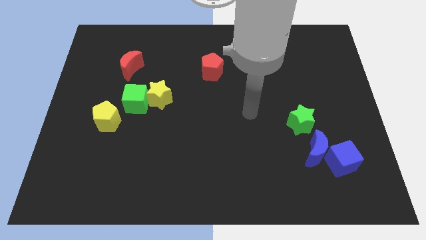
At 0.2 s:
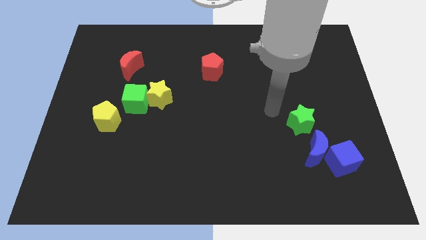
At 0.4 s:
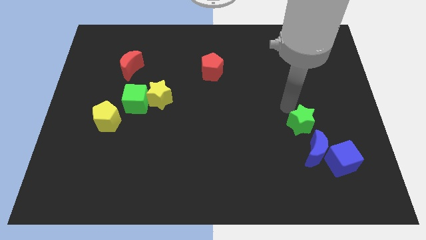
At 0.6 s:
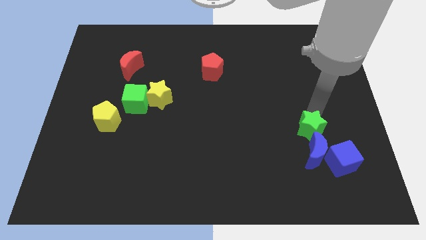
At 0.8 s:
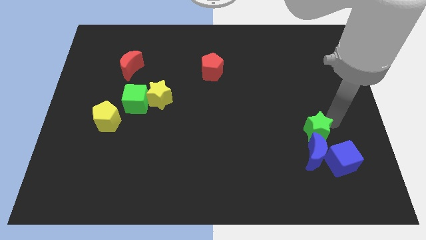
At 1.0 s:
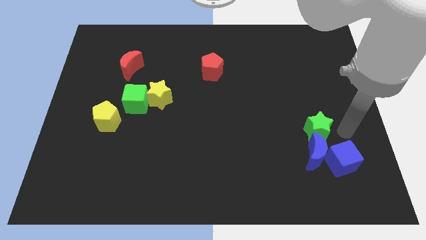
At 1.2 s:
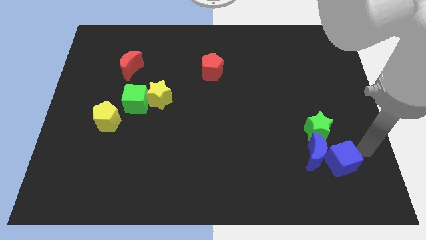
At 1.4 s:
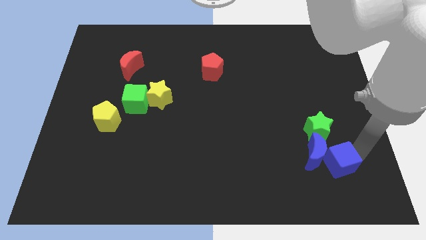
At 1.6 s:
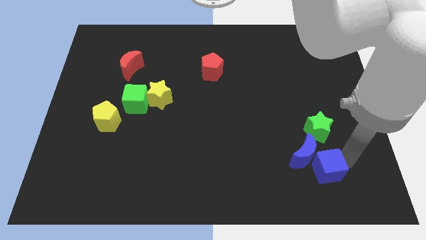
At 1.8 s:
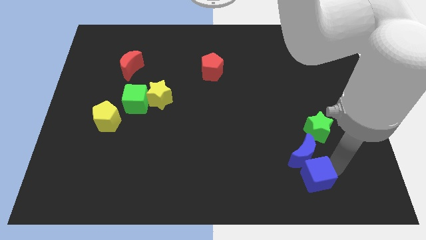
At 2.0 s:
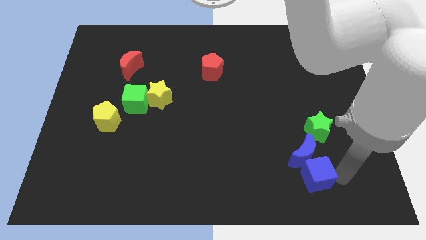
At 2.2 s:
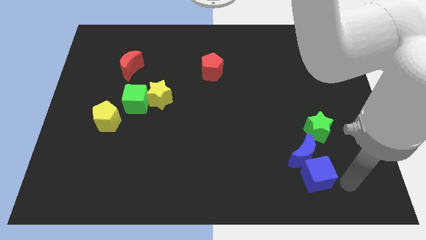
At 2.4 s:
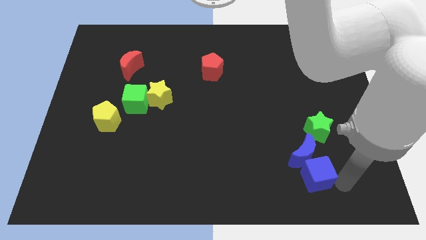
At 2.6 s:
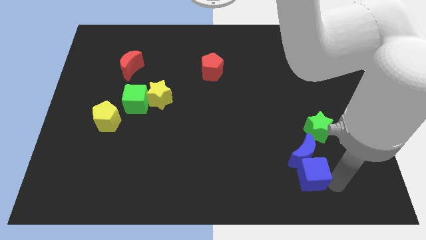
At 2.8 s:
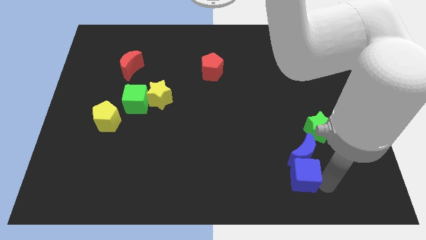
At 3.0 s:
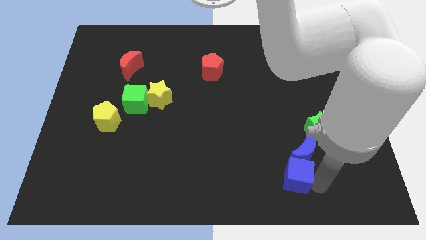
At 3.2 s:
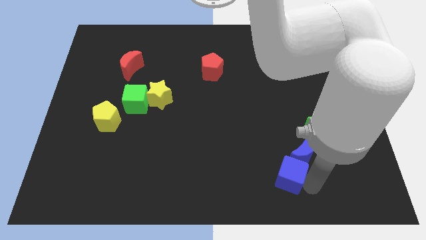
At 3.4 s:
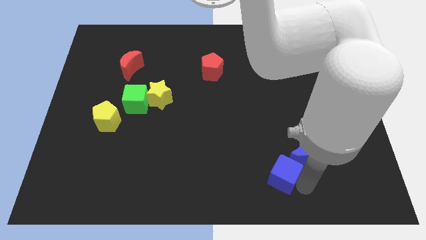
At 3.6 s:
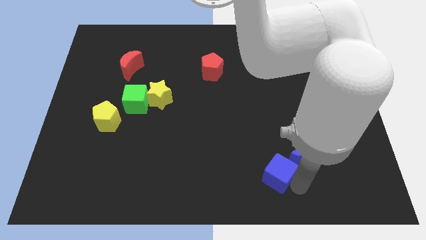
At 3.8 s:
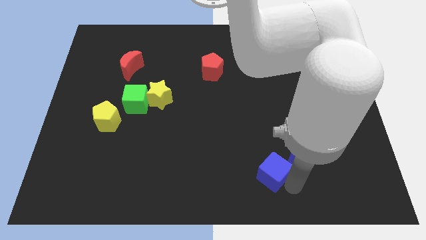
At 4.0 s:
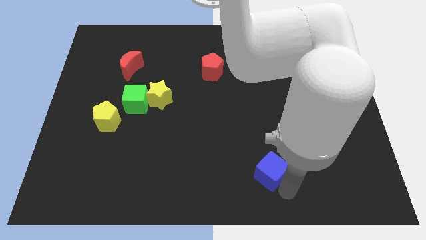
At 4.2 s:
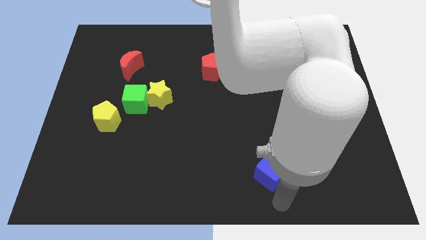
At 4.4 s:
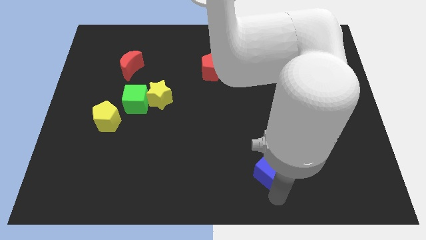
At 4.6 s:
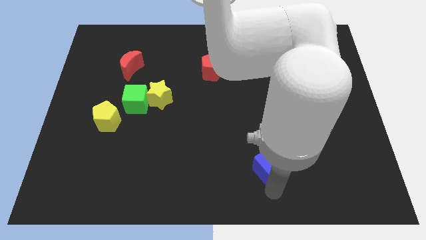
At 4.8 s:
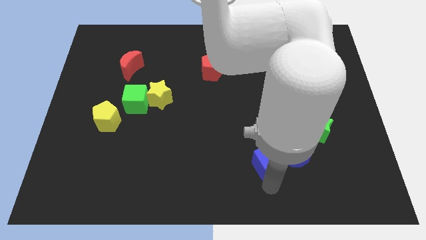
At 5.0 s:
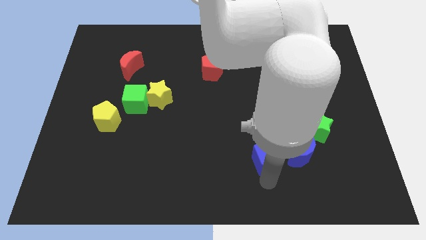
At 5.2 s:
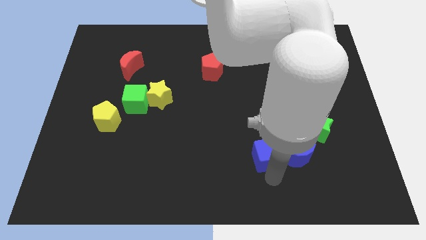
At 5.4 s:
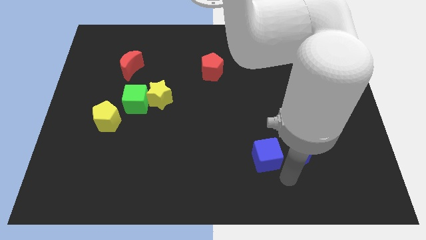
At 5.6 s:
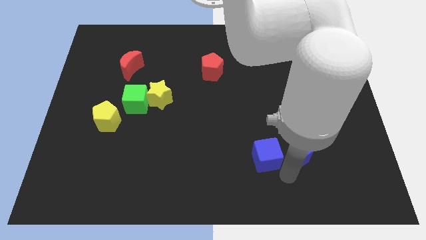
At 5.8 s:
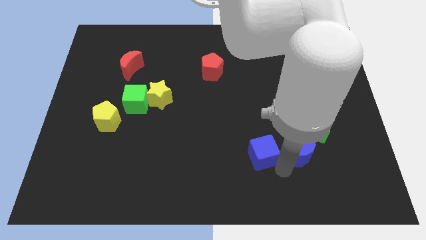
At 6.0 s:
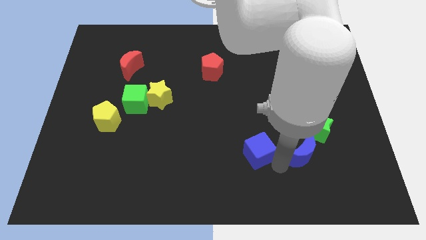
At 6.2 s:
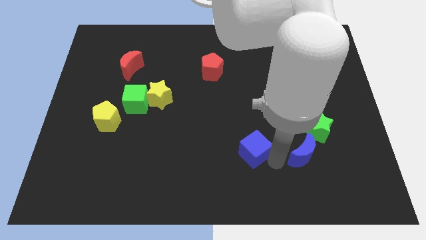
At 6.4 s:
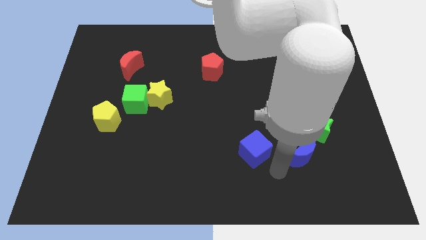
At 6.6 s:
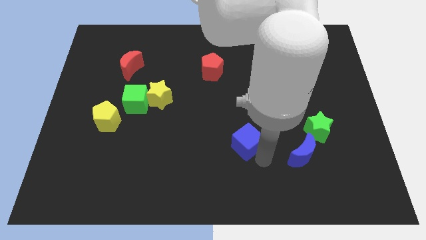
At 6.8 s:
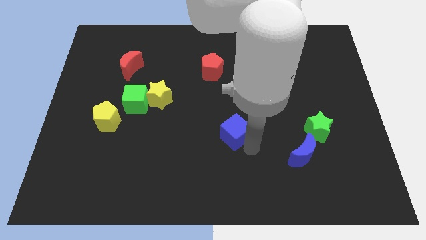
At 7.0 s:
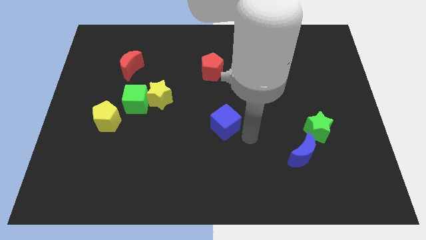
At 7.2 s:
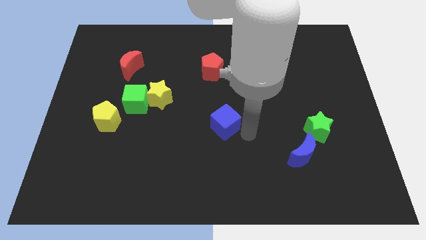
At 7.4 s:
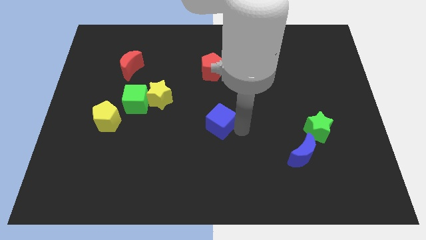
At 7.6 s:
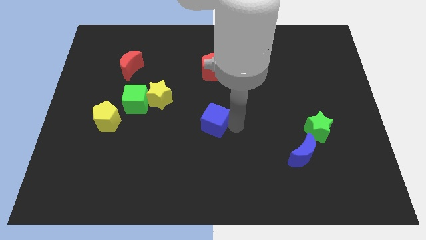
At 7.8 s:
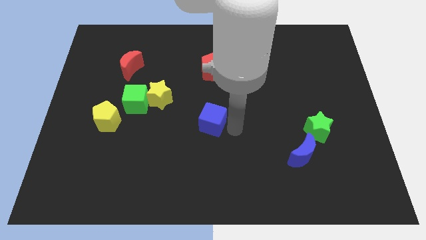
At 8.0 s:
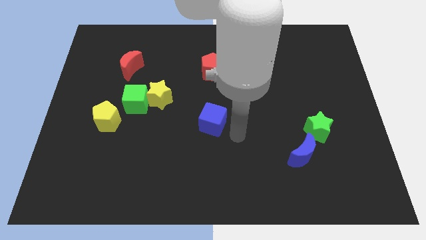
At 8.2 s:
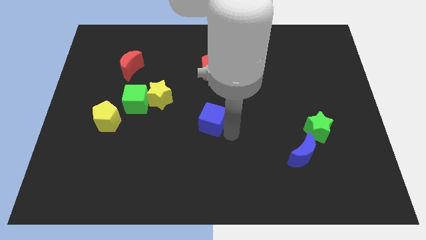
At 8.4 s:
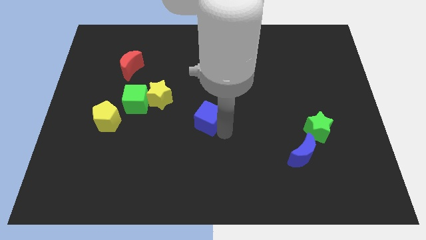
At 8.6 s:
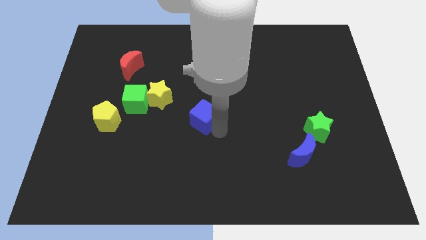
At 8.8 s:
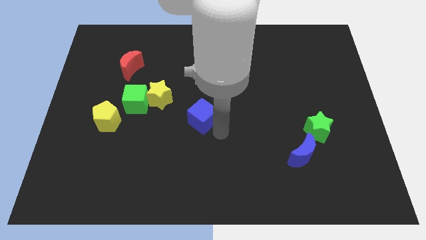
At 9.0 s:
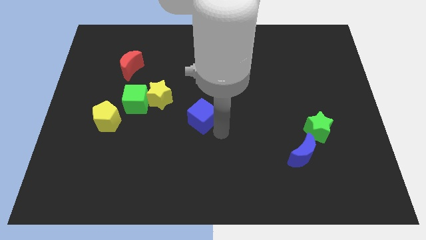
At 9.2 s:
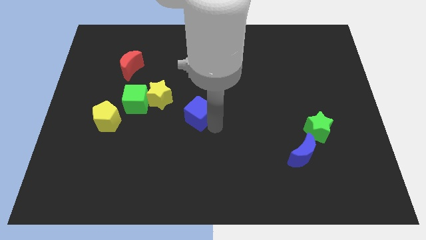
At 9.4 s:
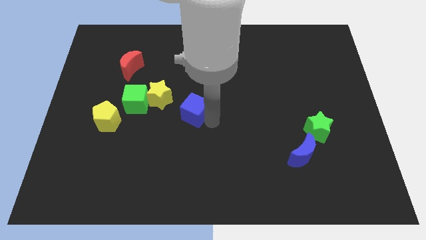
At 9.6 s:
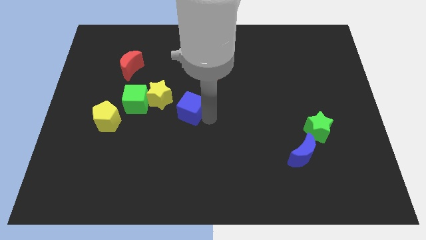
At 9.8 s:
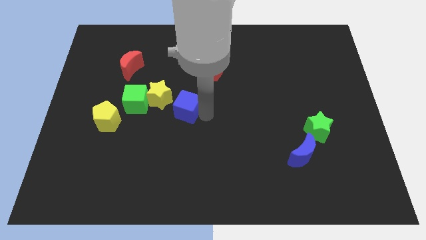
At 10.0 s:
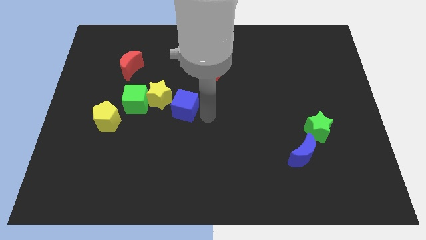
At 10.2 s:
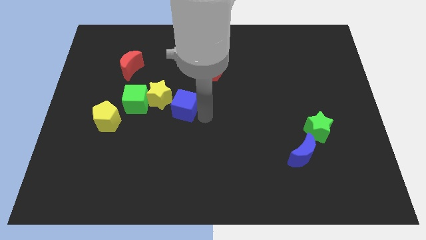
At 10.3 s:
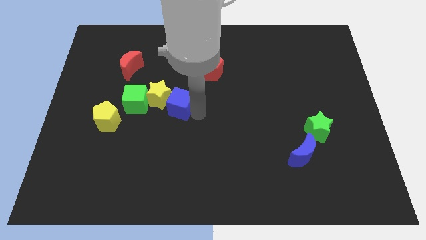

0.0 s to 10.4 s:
move the blue cube next to the yellow star

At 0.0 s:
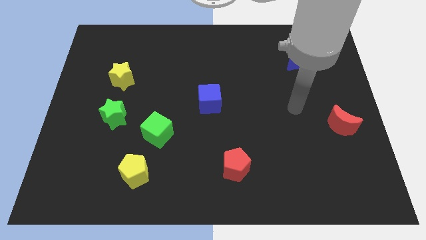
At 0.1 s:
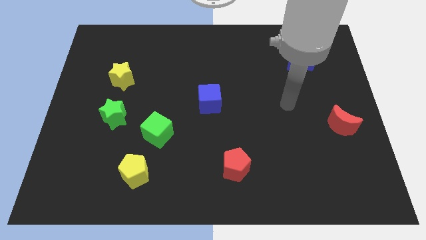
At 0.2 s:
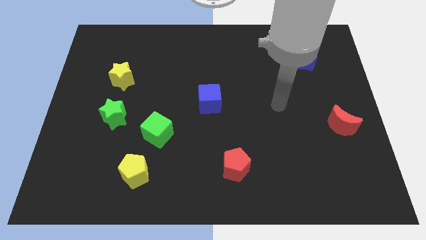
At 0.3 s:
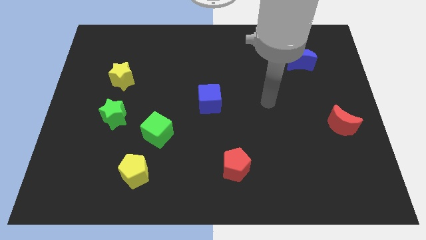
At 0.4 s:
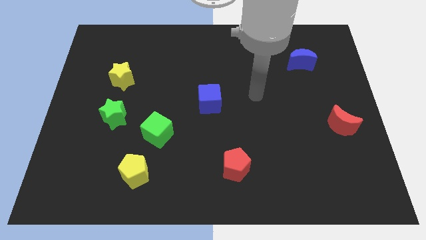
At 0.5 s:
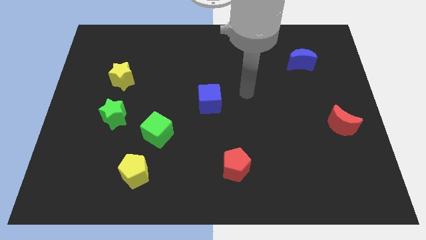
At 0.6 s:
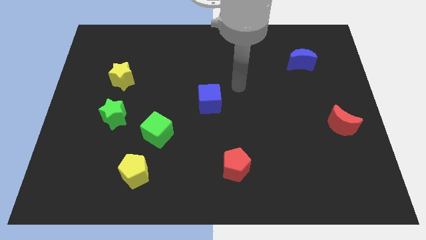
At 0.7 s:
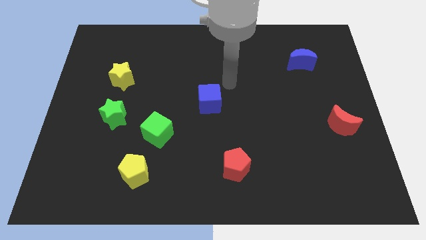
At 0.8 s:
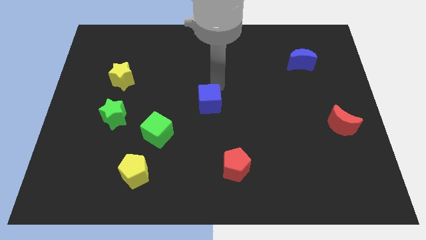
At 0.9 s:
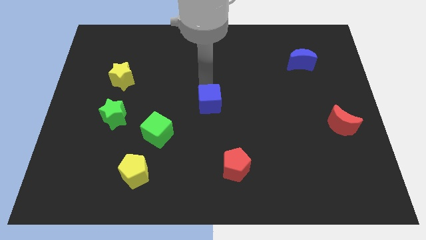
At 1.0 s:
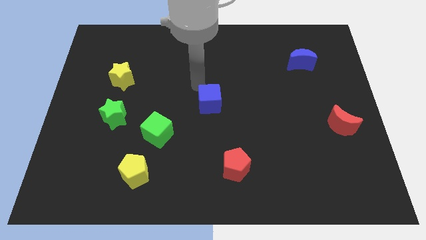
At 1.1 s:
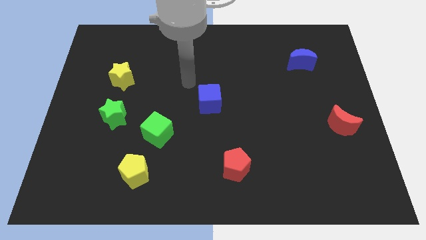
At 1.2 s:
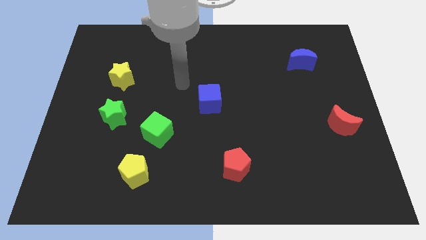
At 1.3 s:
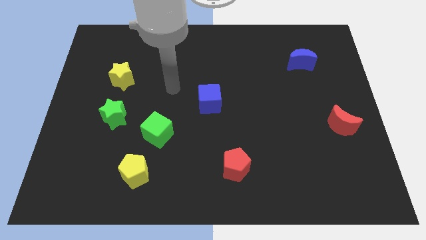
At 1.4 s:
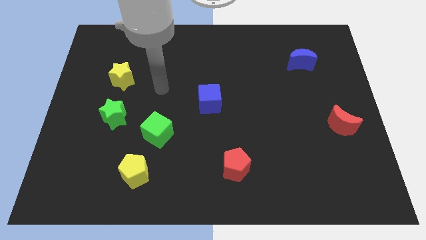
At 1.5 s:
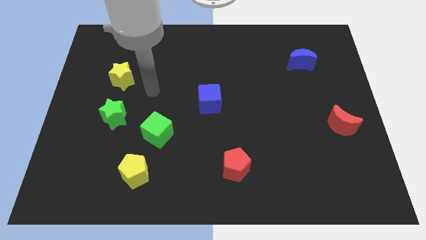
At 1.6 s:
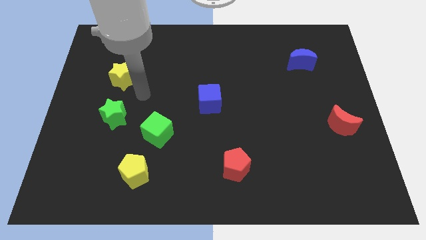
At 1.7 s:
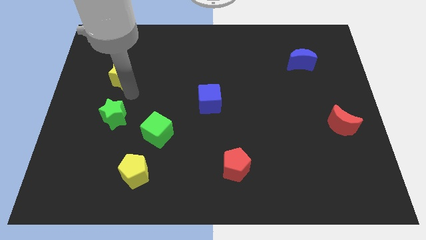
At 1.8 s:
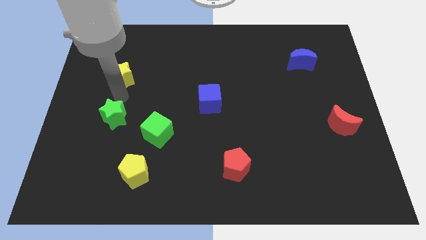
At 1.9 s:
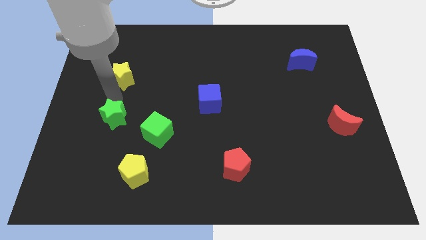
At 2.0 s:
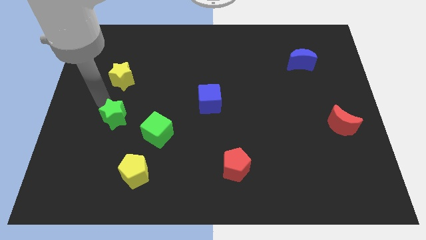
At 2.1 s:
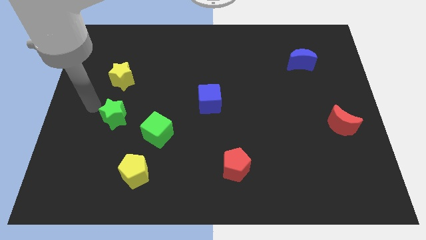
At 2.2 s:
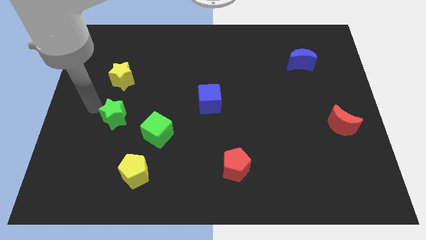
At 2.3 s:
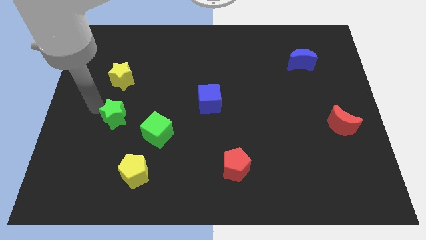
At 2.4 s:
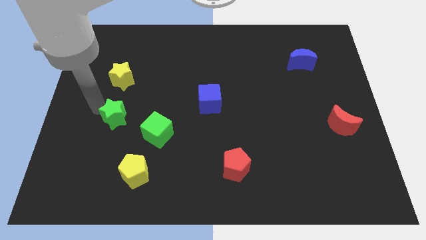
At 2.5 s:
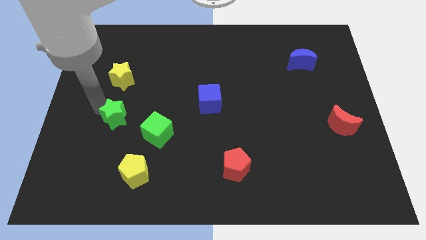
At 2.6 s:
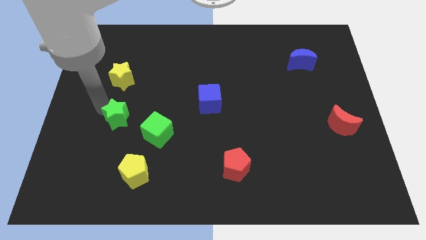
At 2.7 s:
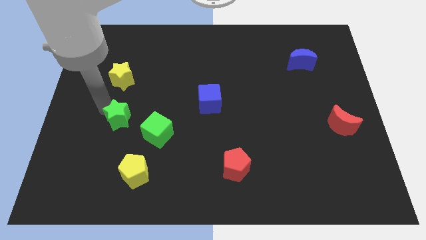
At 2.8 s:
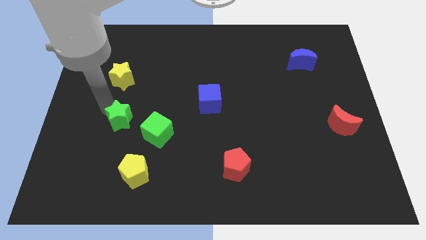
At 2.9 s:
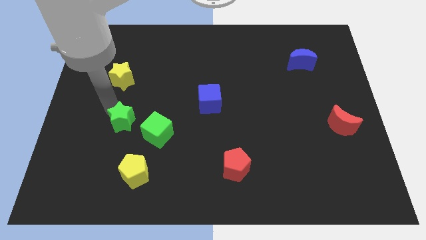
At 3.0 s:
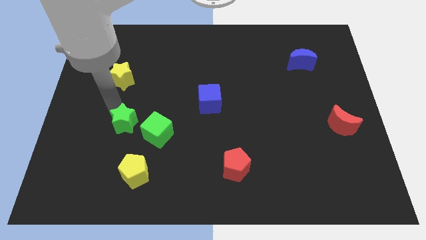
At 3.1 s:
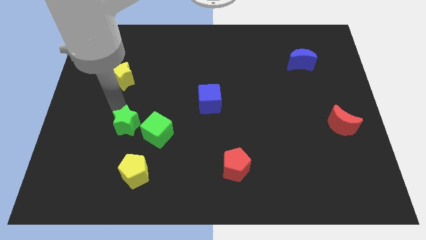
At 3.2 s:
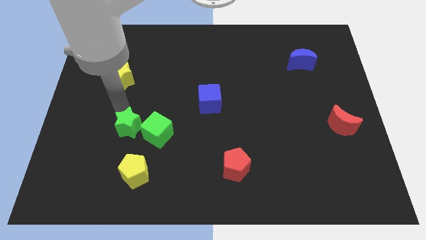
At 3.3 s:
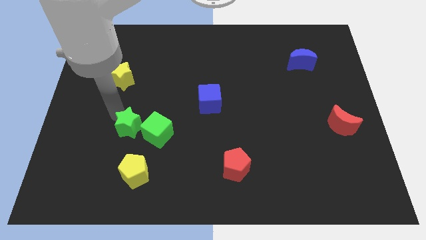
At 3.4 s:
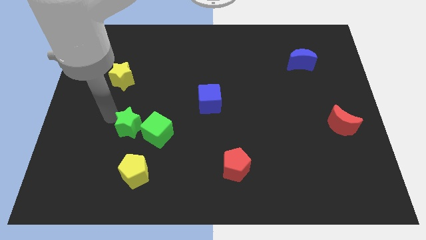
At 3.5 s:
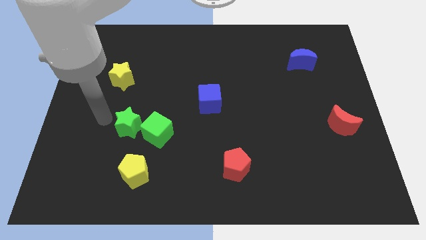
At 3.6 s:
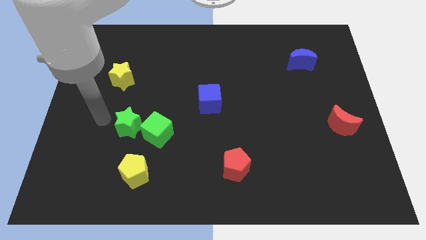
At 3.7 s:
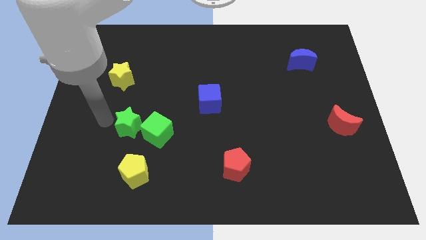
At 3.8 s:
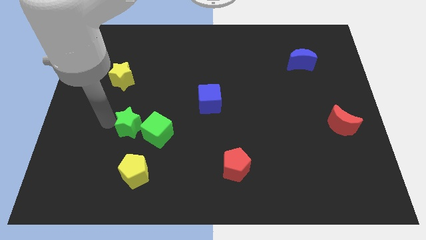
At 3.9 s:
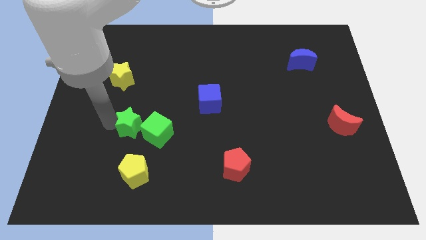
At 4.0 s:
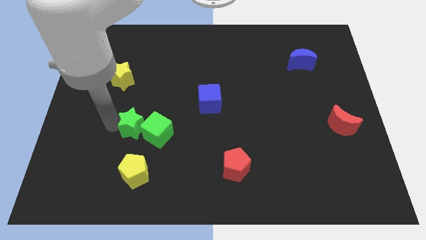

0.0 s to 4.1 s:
push the green star to the green cube
